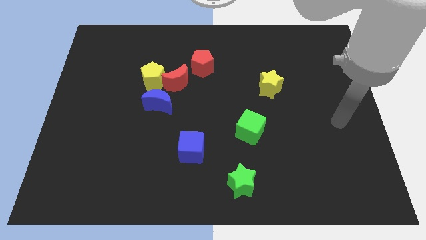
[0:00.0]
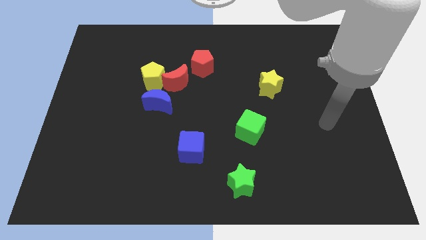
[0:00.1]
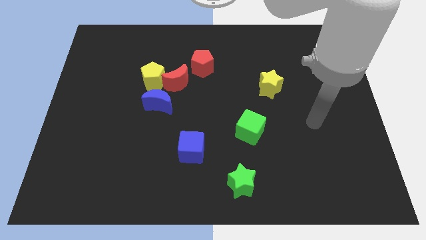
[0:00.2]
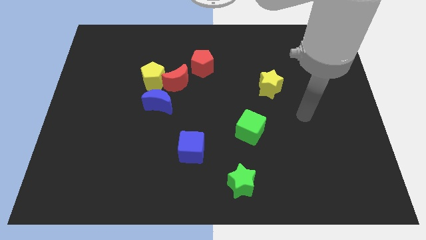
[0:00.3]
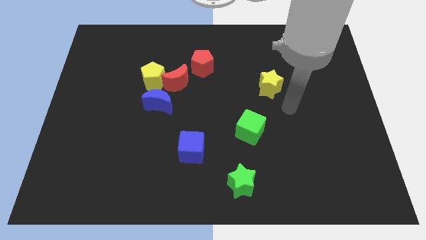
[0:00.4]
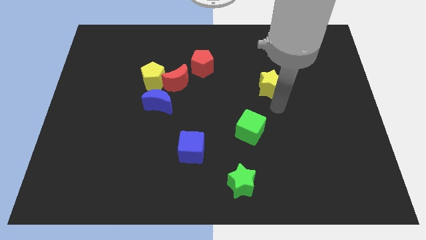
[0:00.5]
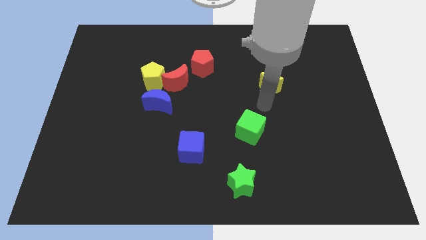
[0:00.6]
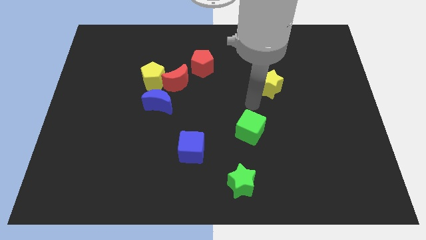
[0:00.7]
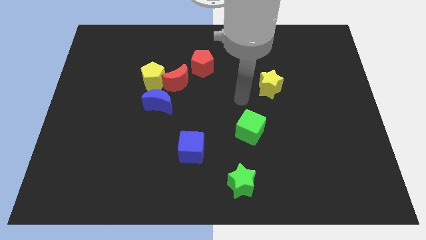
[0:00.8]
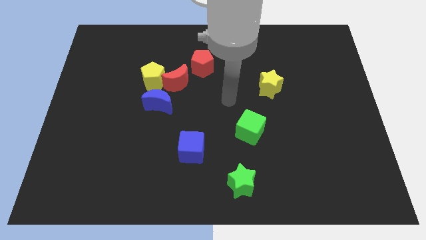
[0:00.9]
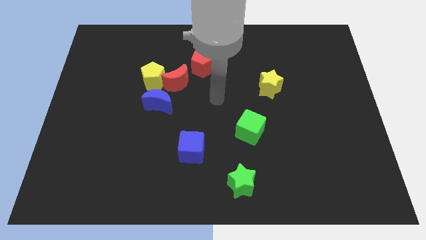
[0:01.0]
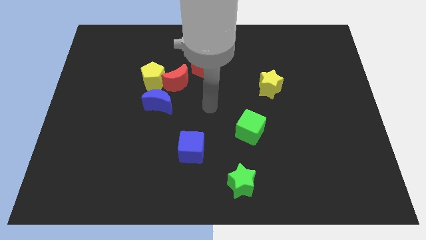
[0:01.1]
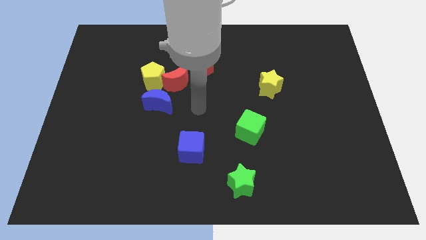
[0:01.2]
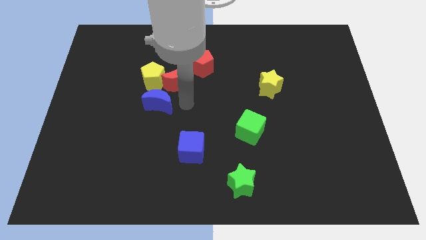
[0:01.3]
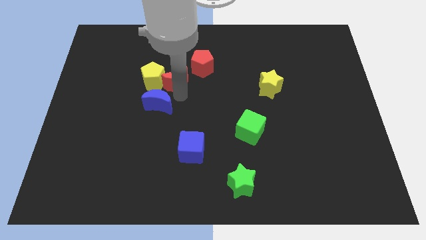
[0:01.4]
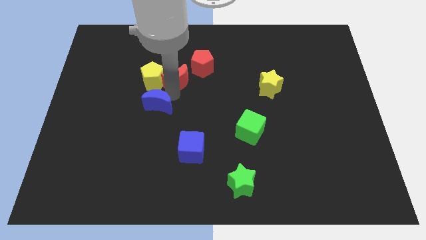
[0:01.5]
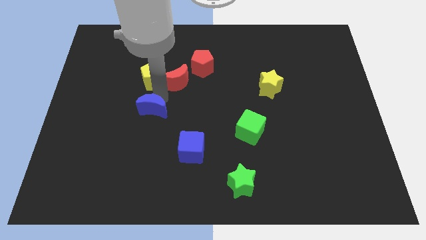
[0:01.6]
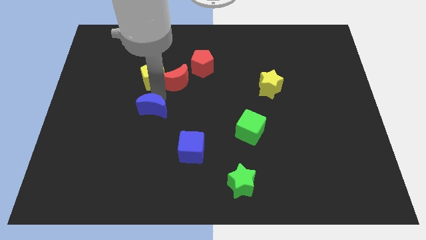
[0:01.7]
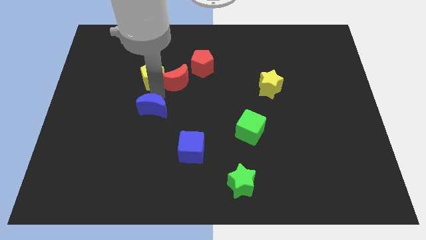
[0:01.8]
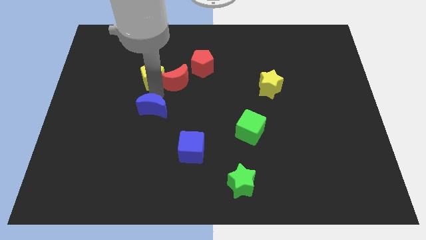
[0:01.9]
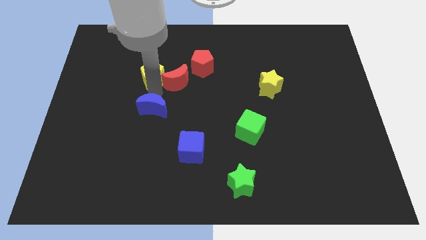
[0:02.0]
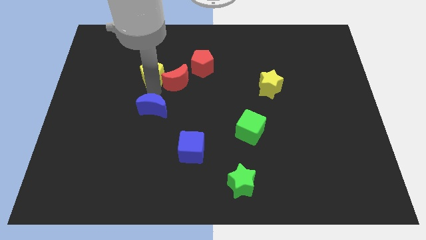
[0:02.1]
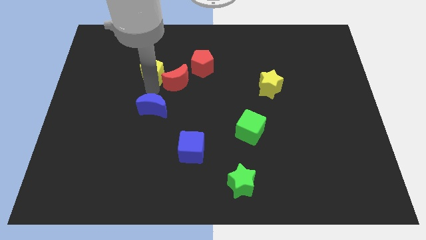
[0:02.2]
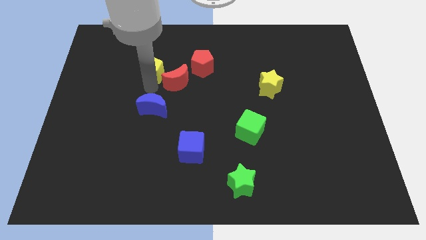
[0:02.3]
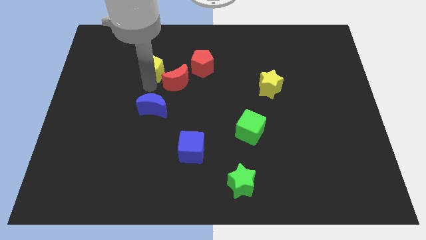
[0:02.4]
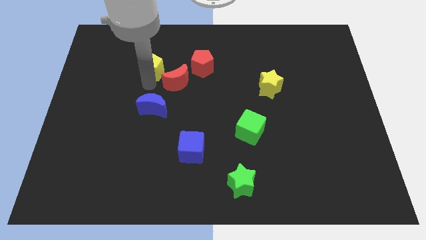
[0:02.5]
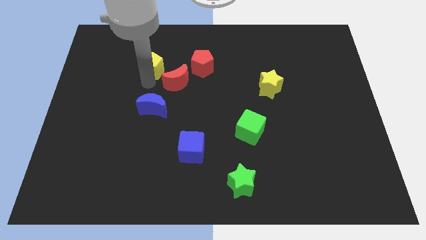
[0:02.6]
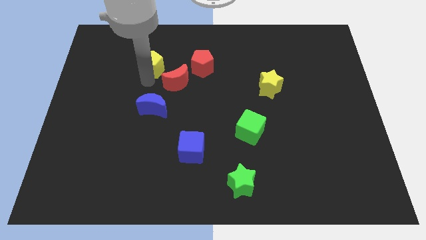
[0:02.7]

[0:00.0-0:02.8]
separate the yellow pentagon from the red moon and blue moon

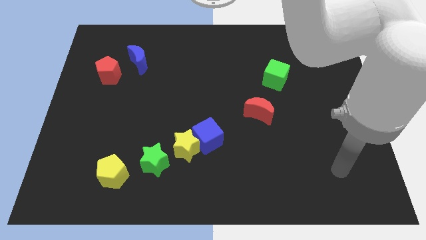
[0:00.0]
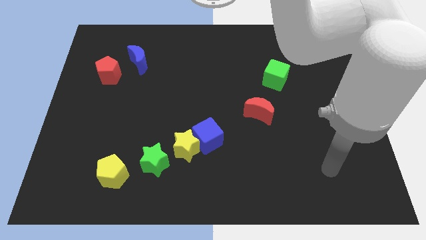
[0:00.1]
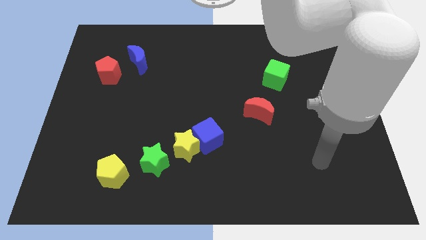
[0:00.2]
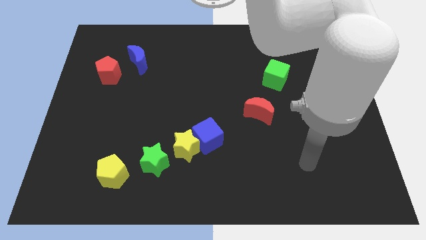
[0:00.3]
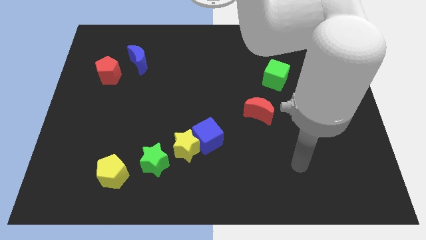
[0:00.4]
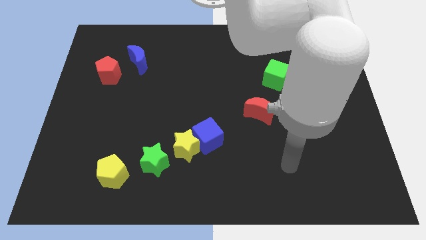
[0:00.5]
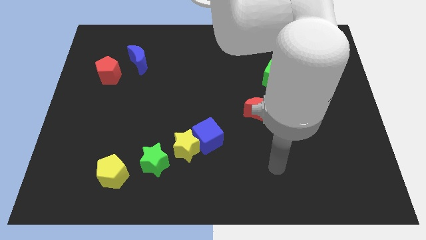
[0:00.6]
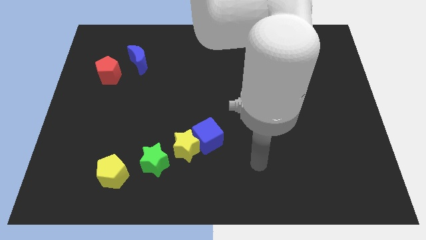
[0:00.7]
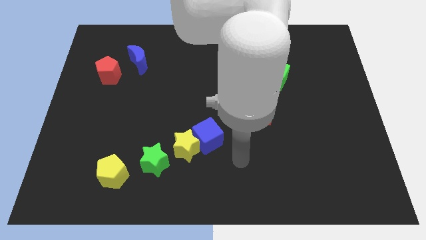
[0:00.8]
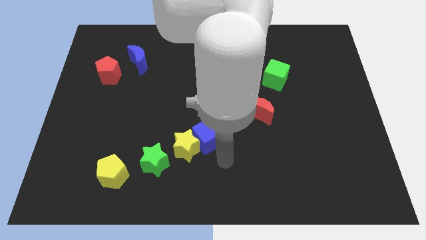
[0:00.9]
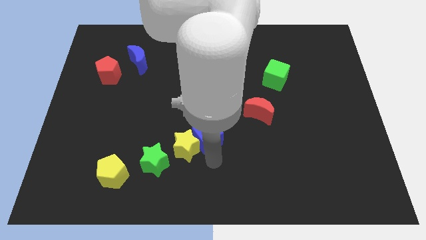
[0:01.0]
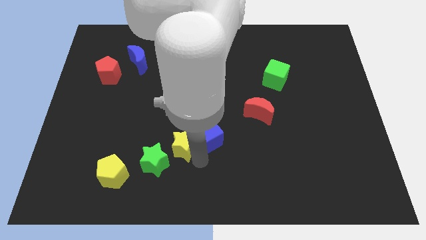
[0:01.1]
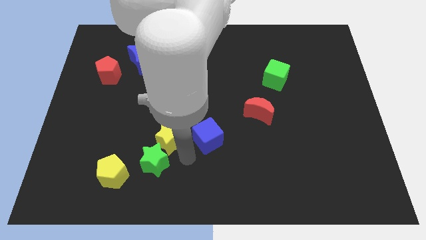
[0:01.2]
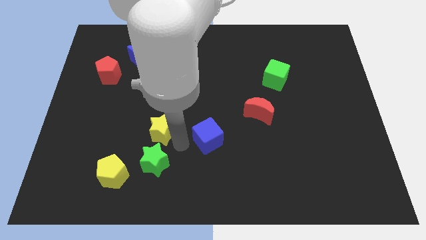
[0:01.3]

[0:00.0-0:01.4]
move the blue cube away from the yellow star

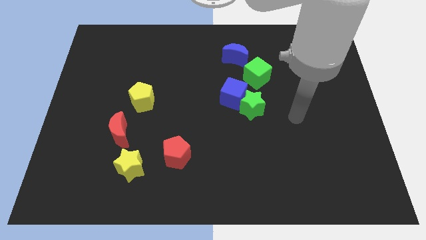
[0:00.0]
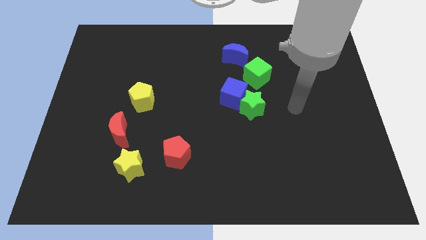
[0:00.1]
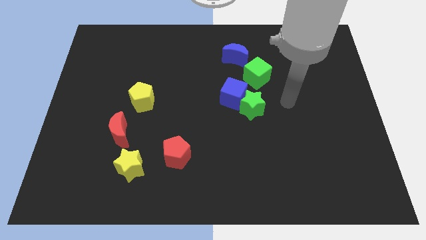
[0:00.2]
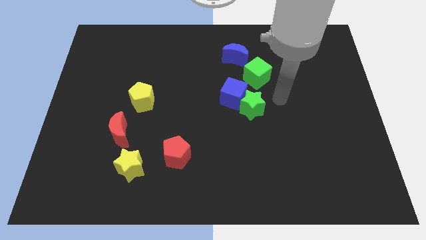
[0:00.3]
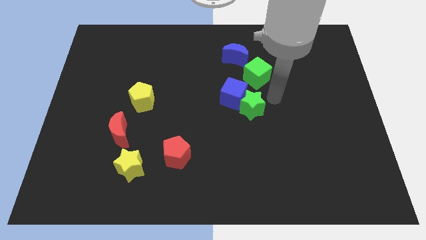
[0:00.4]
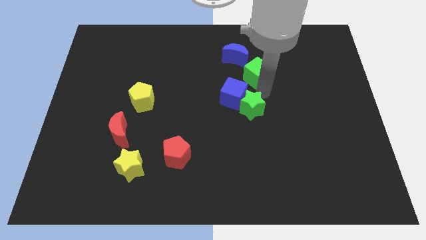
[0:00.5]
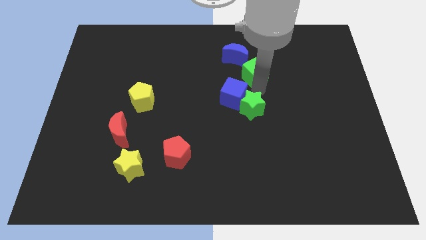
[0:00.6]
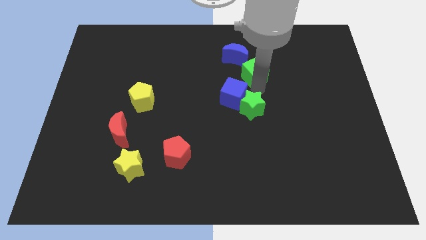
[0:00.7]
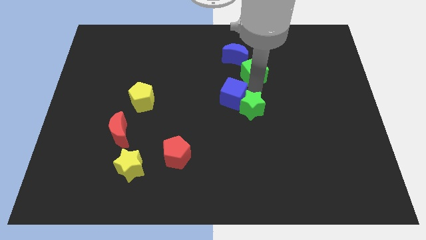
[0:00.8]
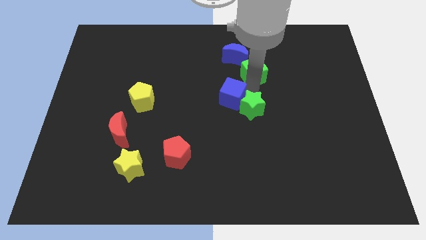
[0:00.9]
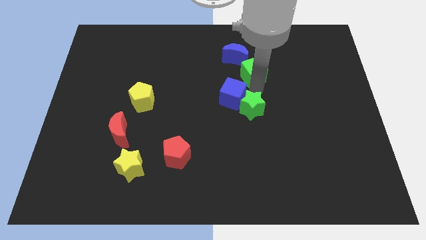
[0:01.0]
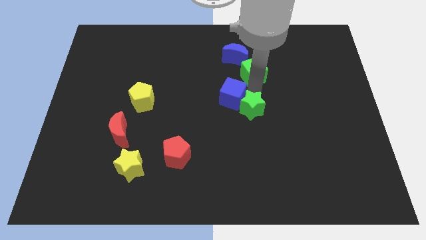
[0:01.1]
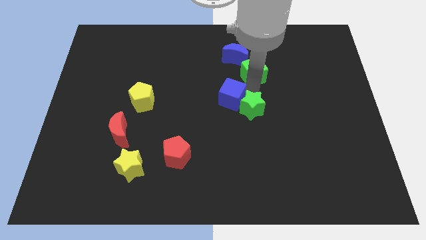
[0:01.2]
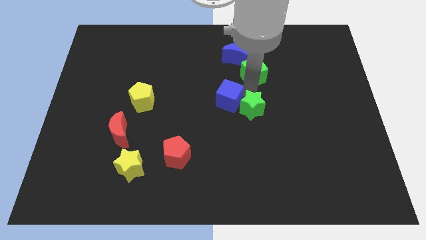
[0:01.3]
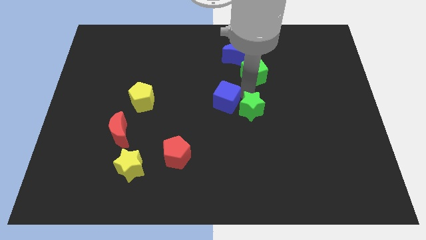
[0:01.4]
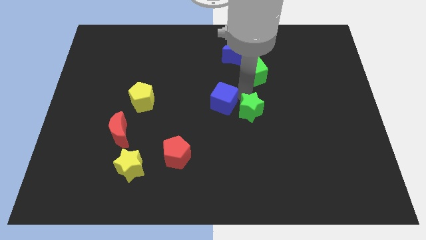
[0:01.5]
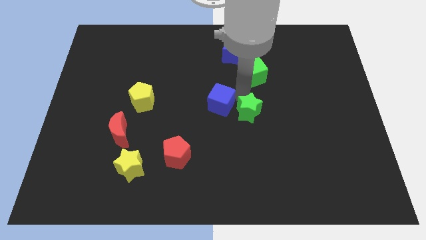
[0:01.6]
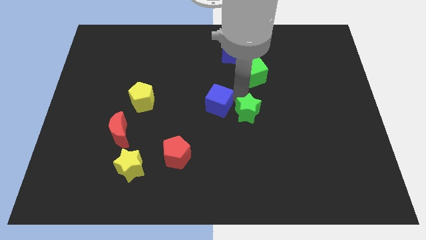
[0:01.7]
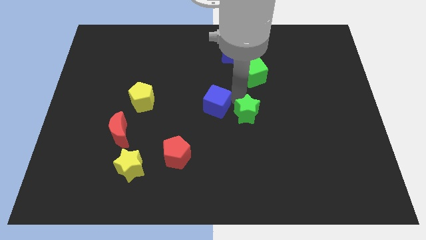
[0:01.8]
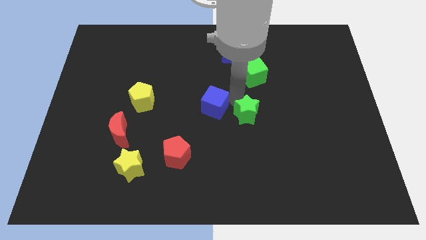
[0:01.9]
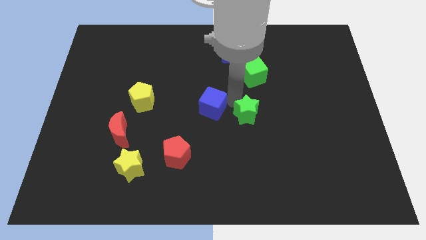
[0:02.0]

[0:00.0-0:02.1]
pull the blue cube apart from the green star and green cube

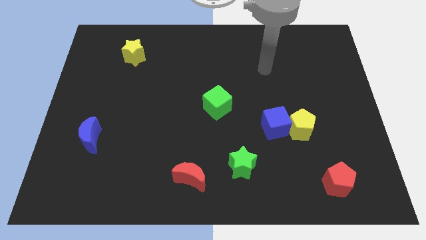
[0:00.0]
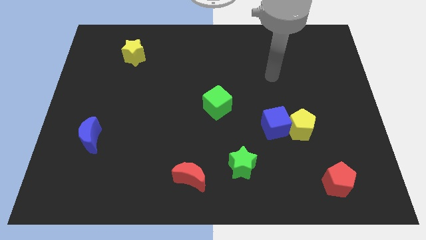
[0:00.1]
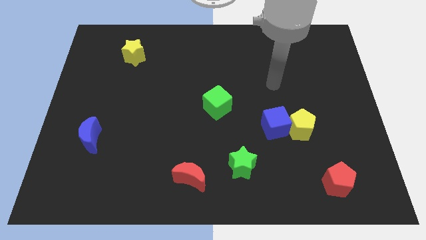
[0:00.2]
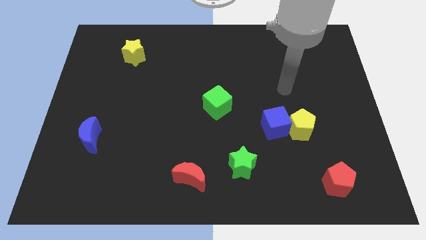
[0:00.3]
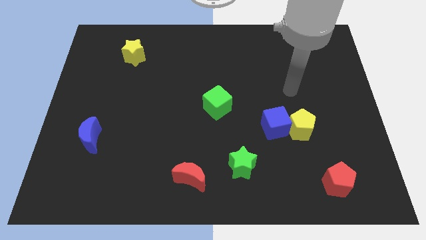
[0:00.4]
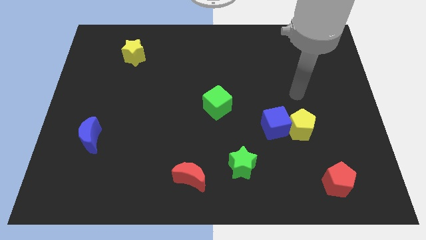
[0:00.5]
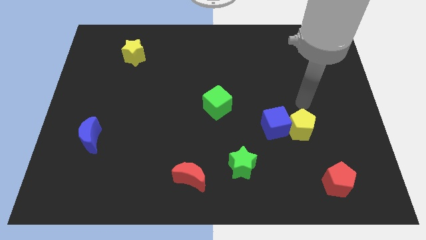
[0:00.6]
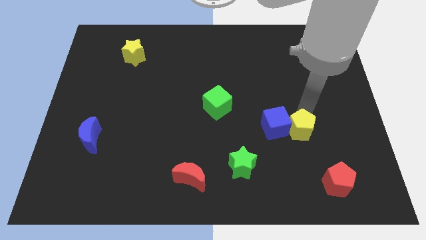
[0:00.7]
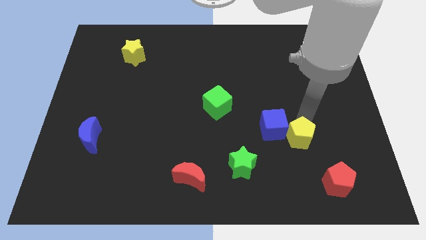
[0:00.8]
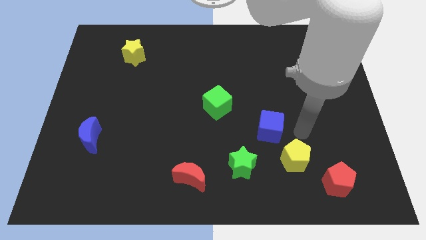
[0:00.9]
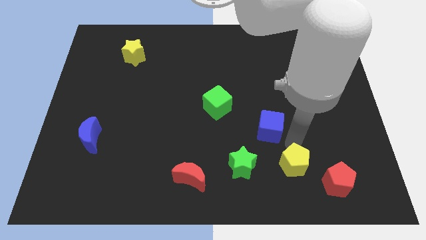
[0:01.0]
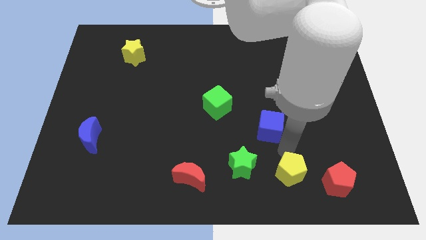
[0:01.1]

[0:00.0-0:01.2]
pull the blue cube apart from the yellow pentagon

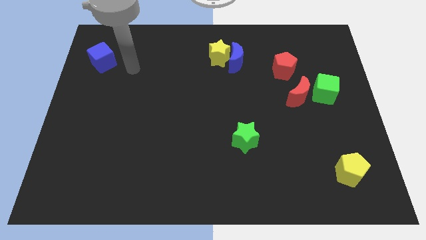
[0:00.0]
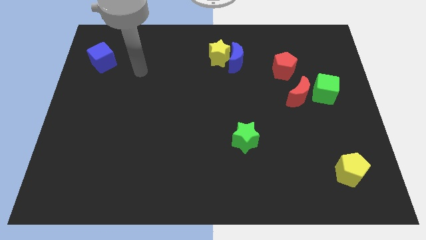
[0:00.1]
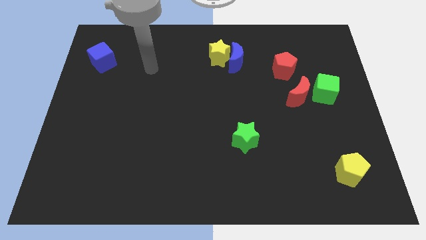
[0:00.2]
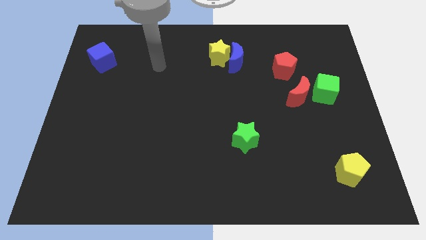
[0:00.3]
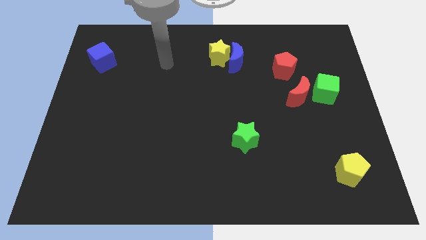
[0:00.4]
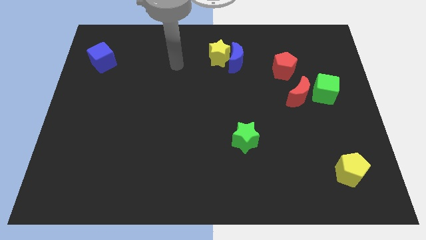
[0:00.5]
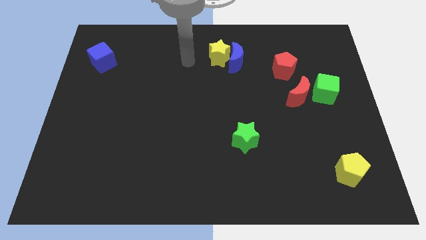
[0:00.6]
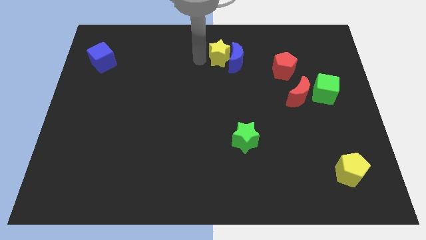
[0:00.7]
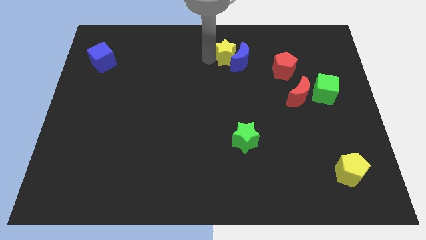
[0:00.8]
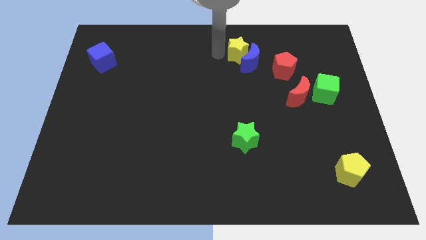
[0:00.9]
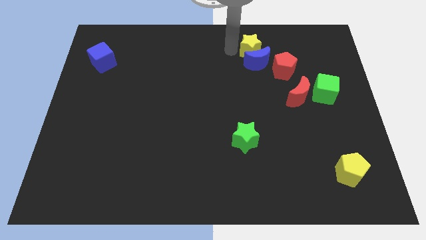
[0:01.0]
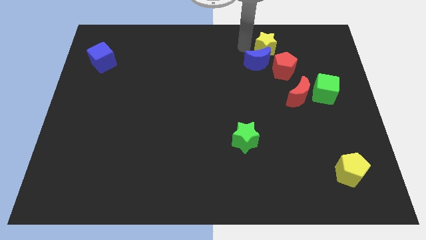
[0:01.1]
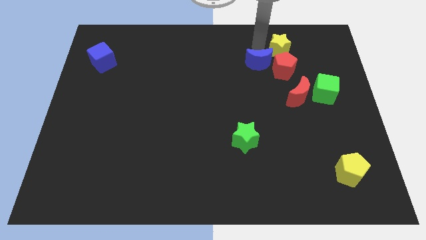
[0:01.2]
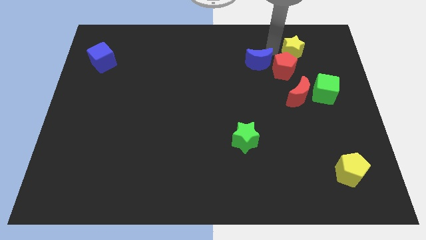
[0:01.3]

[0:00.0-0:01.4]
pull the blue moon apart from the yellow star

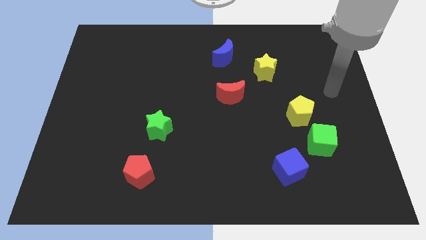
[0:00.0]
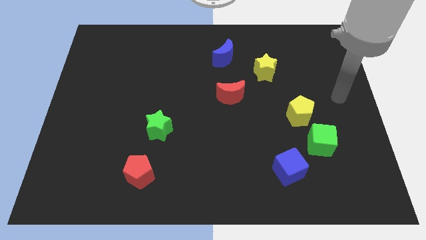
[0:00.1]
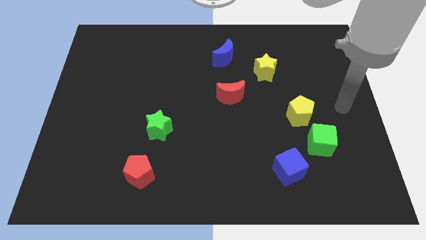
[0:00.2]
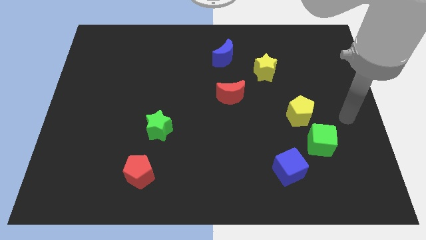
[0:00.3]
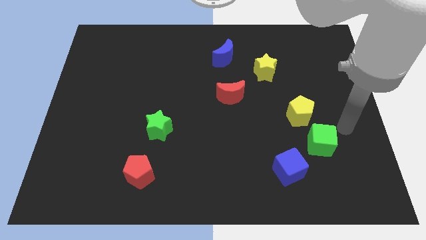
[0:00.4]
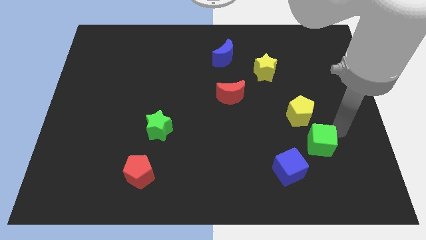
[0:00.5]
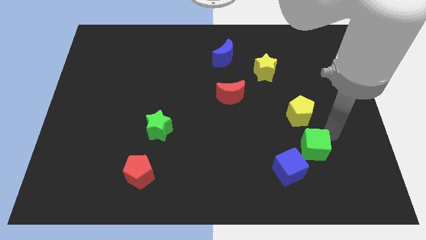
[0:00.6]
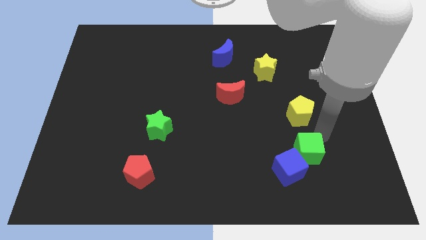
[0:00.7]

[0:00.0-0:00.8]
move the yellow pentagon away from the green cube
